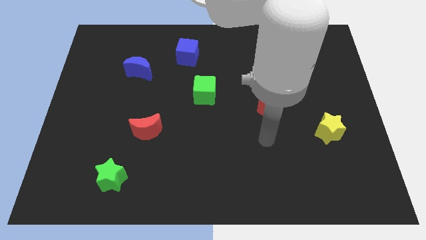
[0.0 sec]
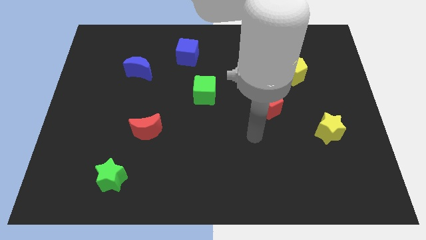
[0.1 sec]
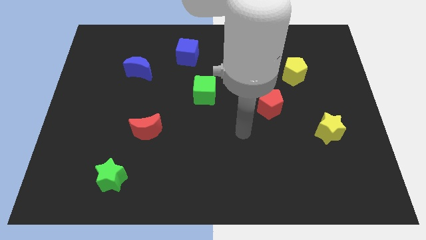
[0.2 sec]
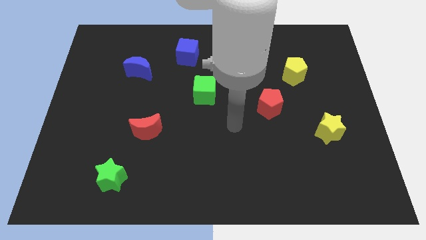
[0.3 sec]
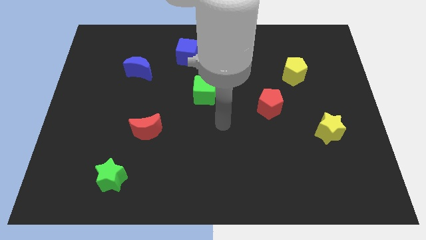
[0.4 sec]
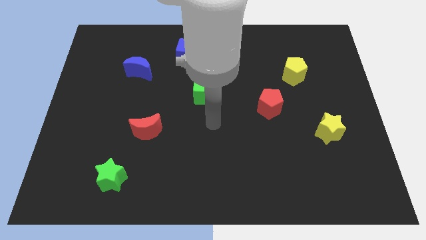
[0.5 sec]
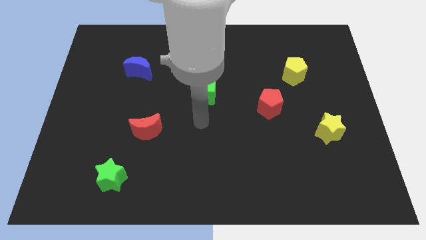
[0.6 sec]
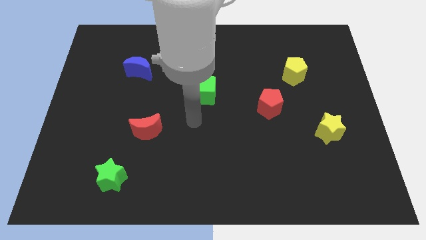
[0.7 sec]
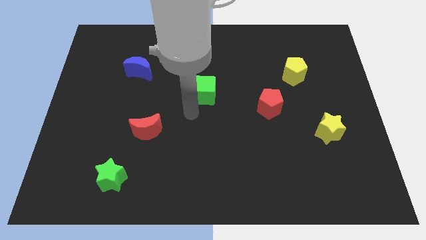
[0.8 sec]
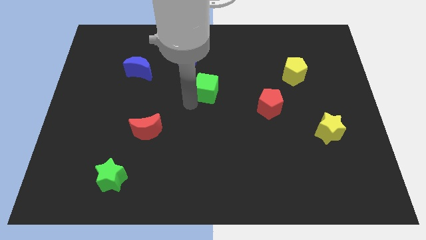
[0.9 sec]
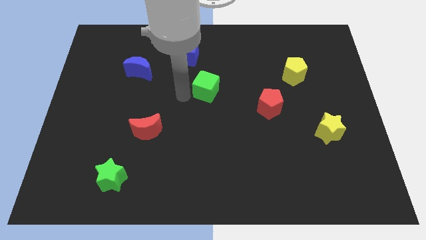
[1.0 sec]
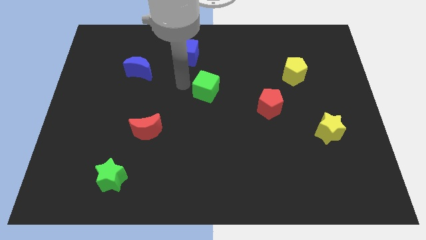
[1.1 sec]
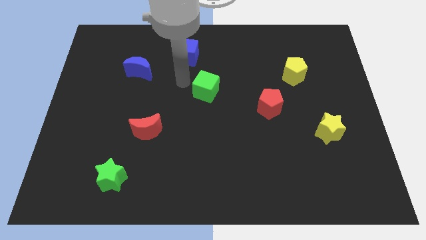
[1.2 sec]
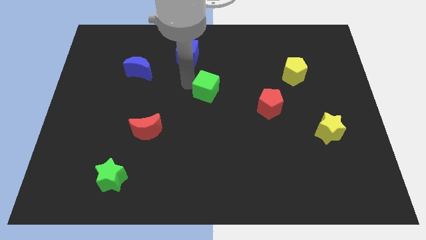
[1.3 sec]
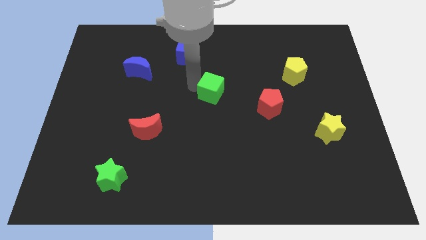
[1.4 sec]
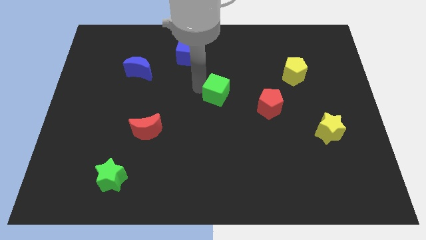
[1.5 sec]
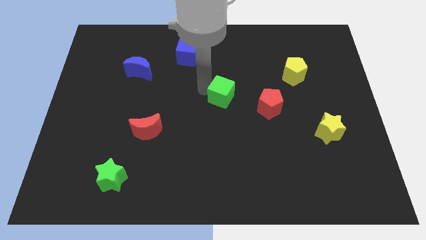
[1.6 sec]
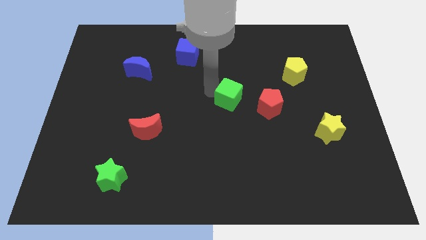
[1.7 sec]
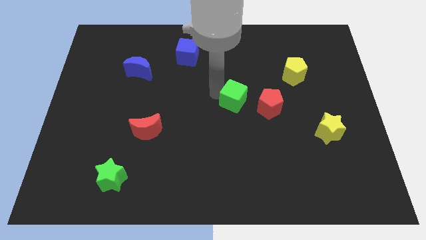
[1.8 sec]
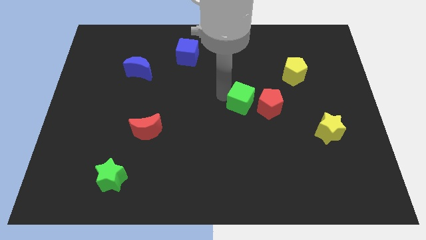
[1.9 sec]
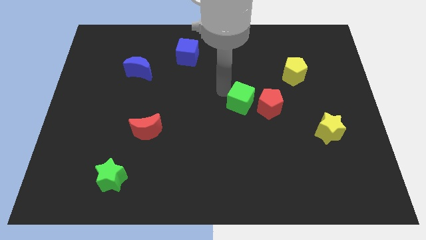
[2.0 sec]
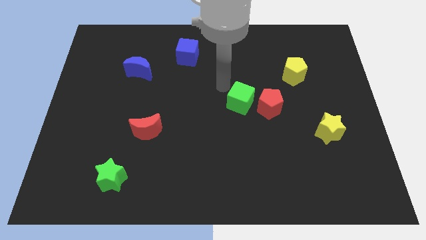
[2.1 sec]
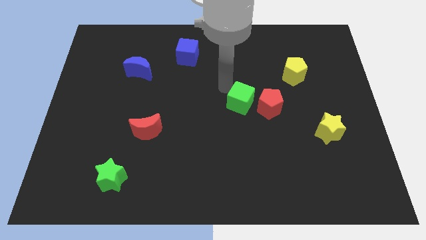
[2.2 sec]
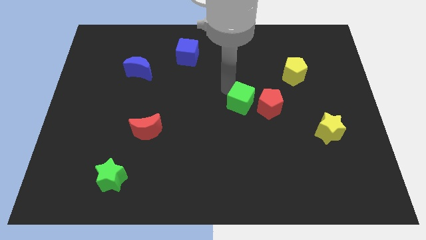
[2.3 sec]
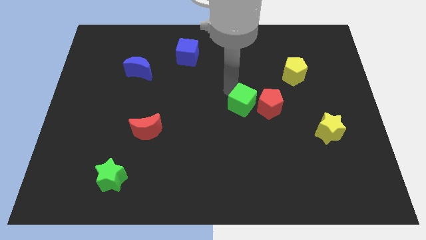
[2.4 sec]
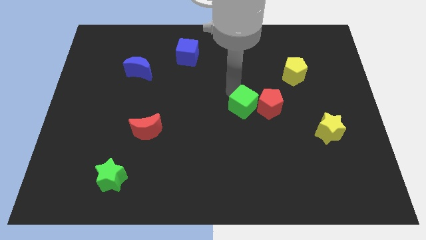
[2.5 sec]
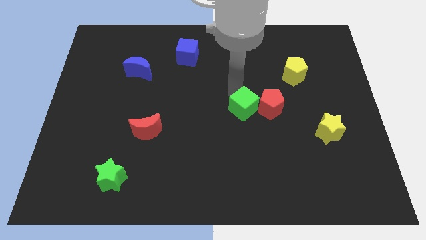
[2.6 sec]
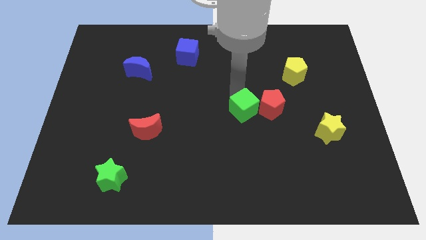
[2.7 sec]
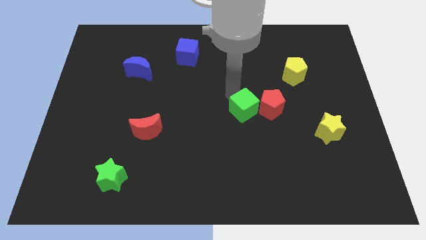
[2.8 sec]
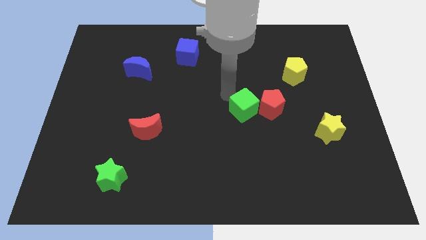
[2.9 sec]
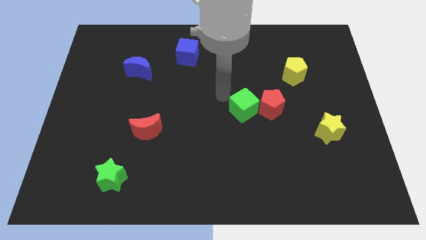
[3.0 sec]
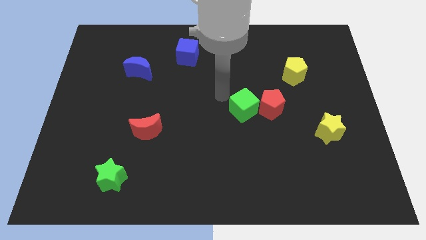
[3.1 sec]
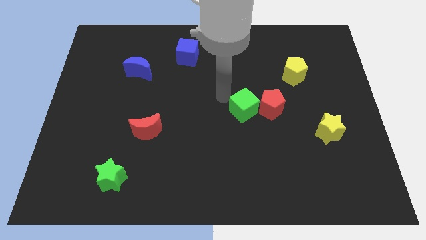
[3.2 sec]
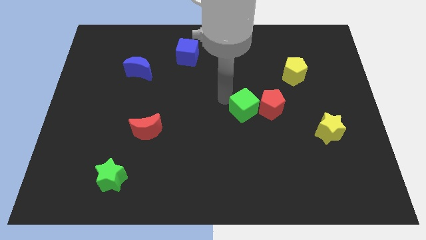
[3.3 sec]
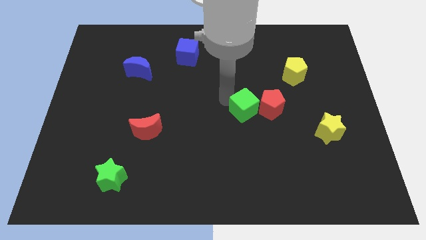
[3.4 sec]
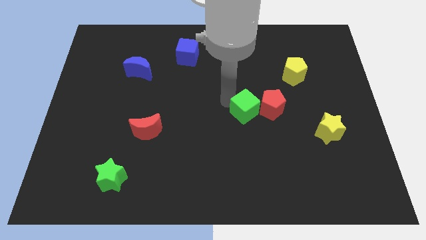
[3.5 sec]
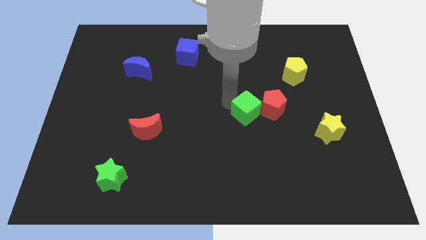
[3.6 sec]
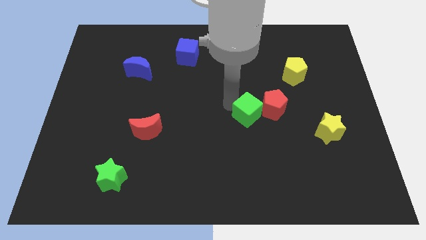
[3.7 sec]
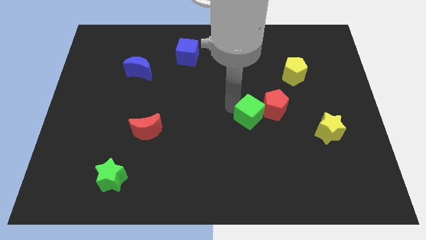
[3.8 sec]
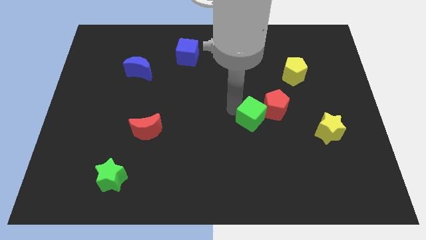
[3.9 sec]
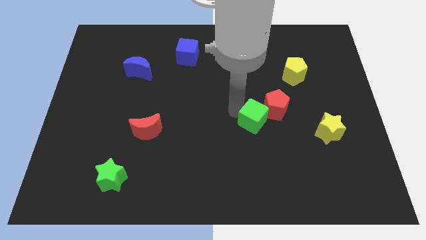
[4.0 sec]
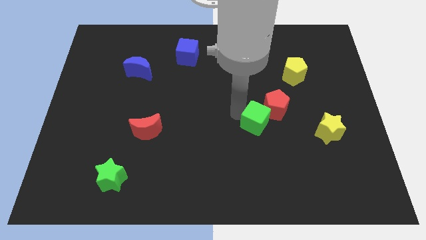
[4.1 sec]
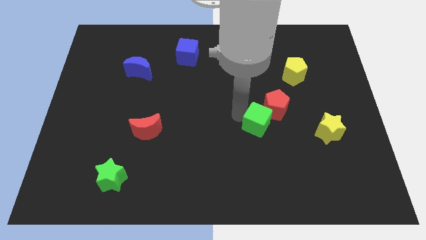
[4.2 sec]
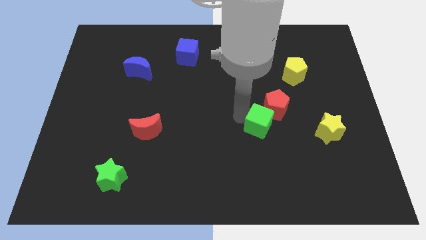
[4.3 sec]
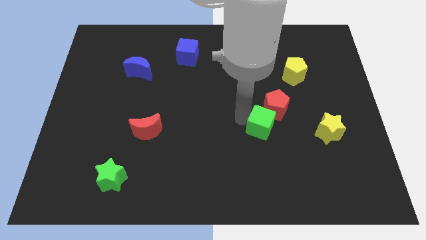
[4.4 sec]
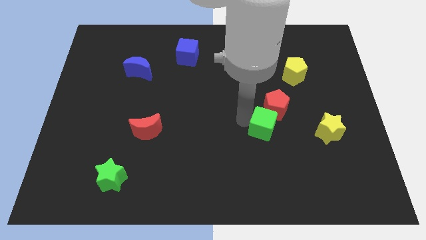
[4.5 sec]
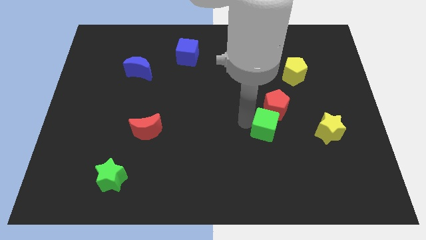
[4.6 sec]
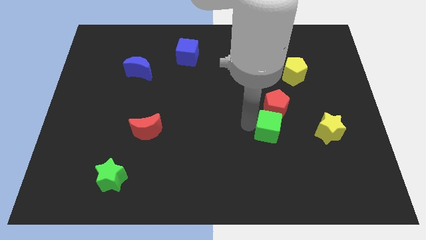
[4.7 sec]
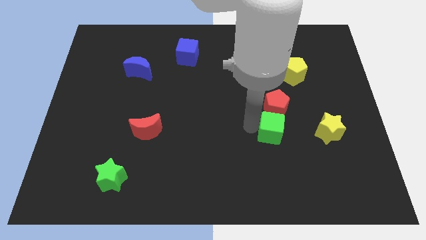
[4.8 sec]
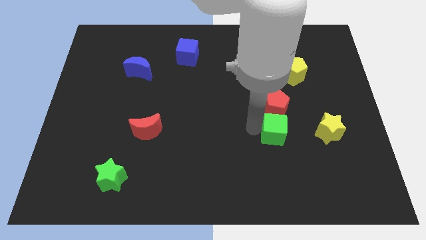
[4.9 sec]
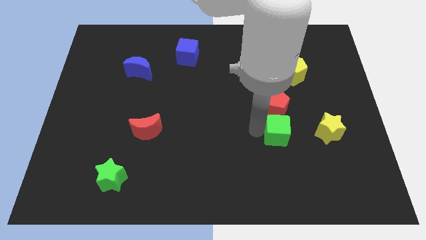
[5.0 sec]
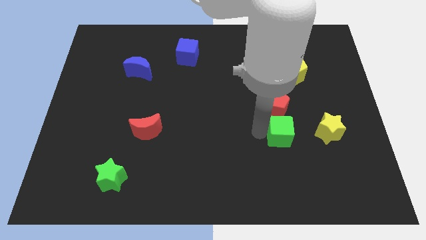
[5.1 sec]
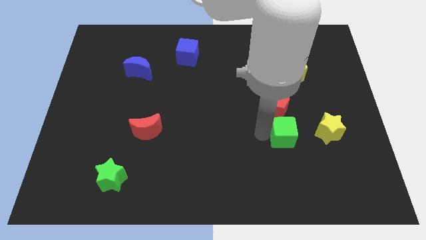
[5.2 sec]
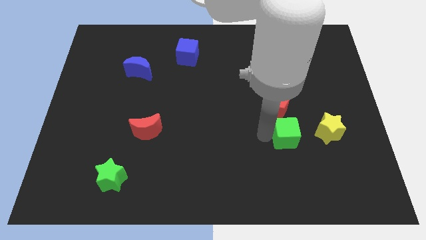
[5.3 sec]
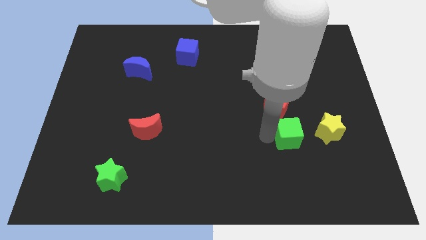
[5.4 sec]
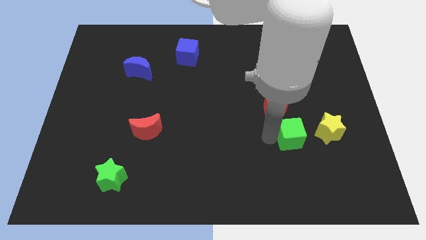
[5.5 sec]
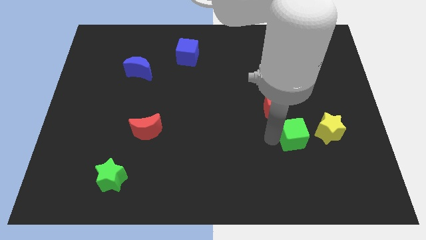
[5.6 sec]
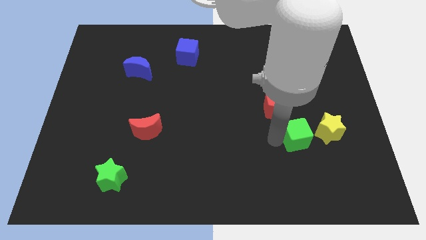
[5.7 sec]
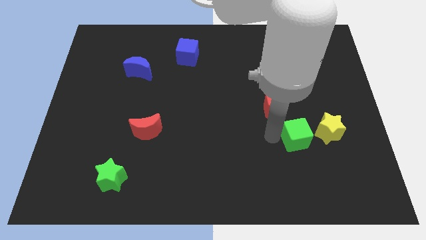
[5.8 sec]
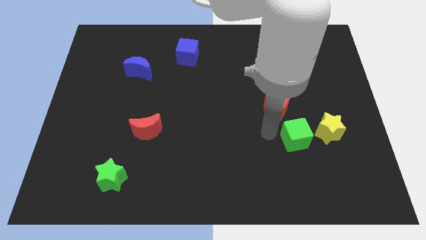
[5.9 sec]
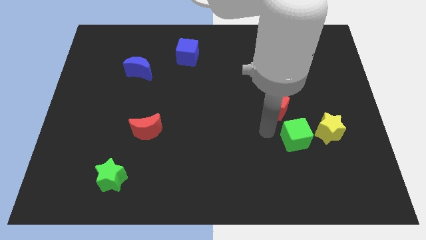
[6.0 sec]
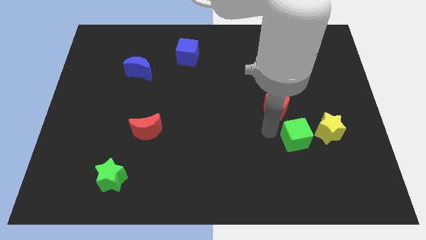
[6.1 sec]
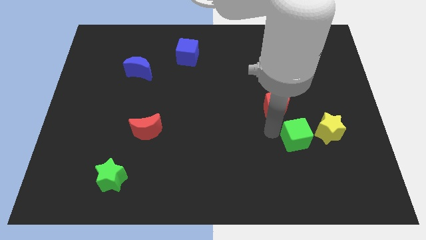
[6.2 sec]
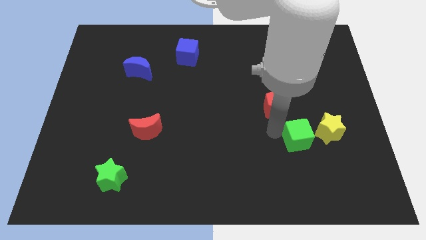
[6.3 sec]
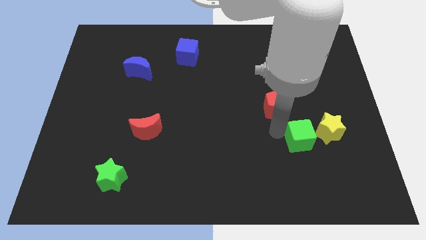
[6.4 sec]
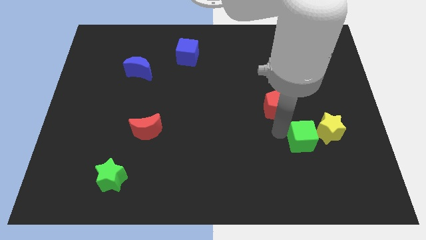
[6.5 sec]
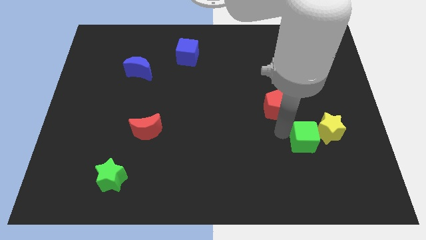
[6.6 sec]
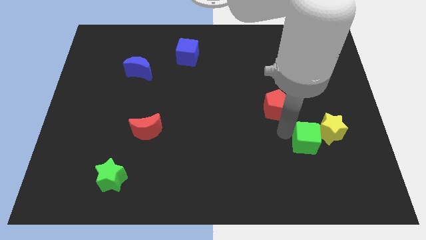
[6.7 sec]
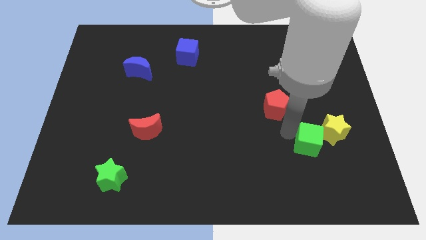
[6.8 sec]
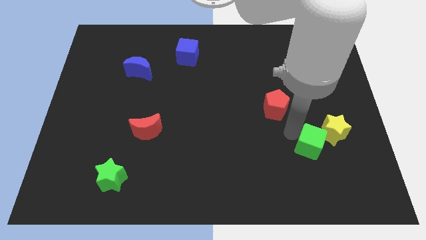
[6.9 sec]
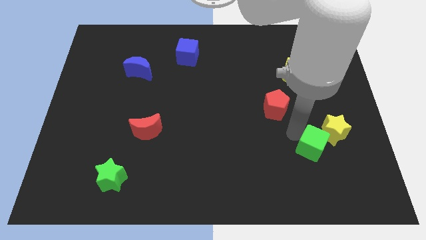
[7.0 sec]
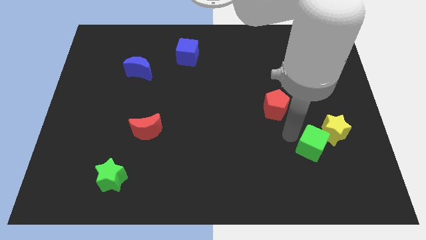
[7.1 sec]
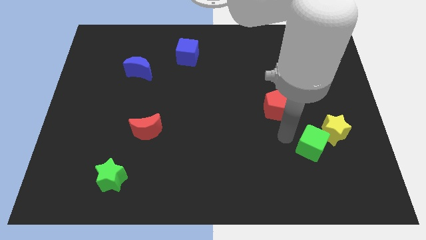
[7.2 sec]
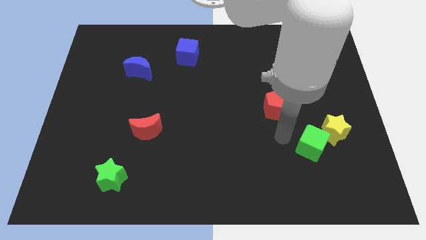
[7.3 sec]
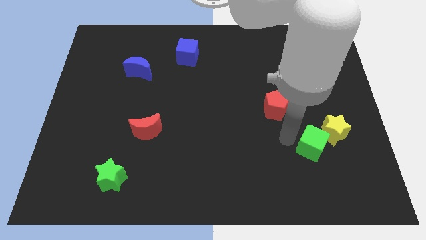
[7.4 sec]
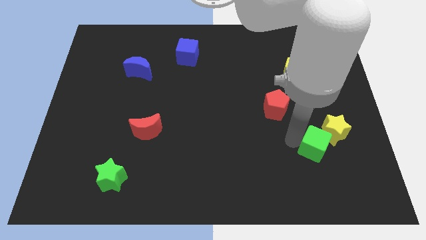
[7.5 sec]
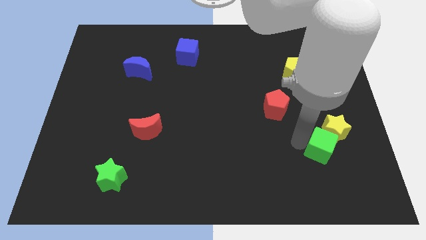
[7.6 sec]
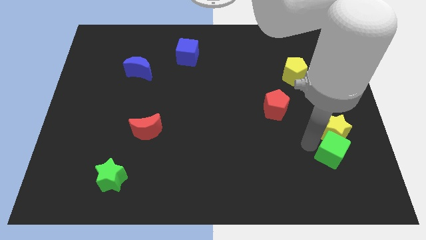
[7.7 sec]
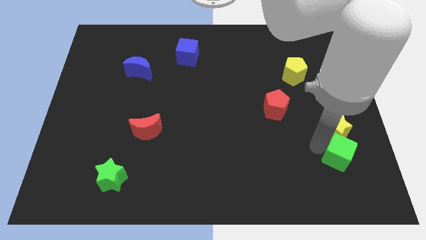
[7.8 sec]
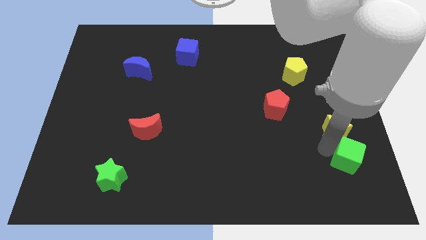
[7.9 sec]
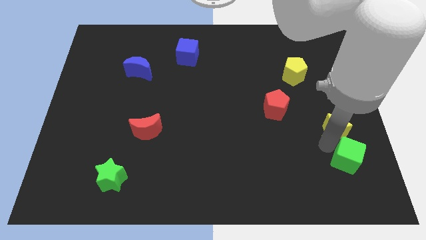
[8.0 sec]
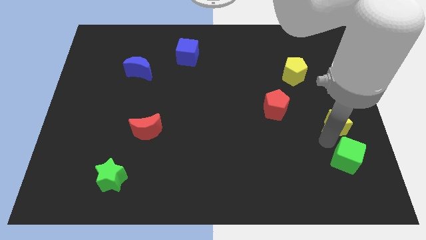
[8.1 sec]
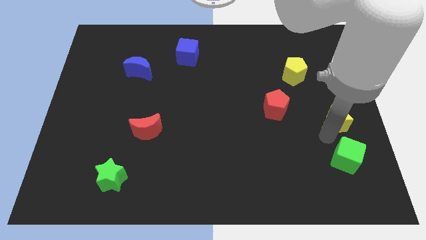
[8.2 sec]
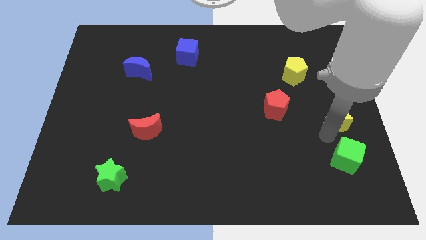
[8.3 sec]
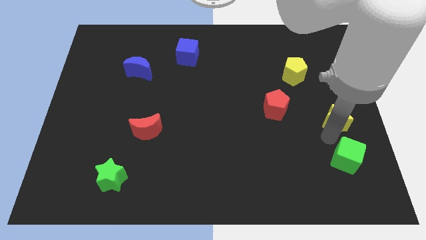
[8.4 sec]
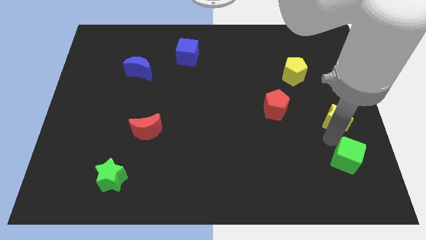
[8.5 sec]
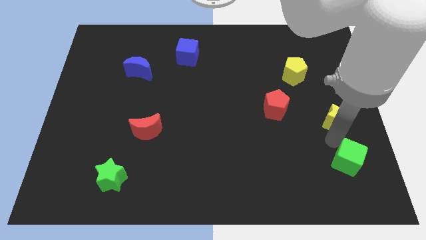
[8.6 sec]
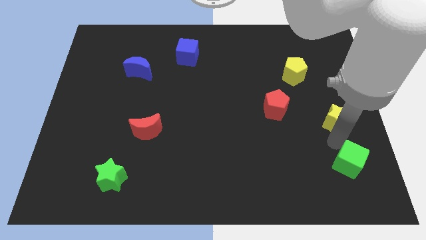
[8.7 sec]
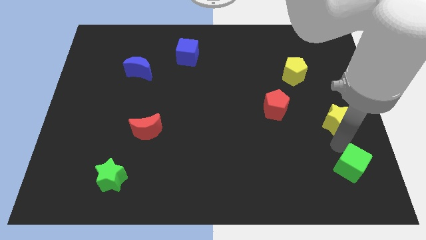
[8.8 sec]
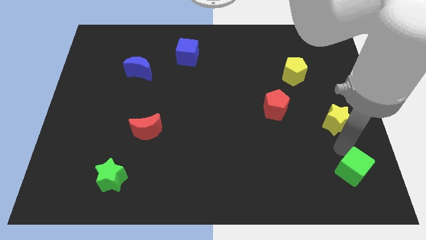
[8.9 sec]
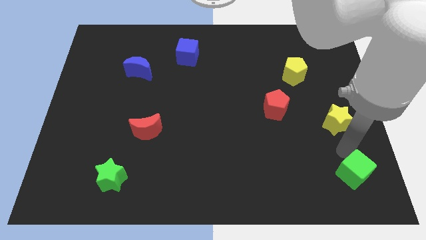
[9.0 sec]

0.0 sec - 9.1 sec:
move the green cube to the lower right corner
